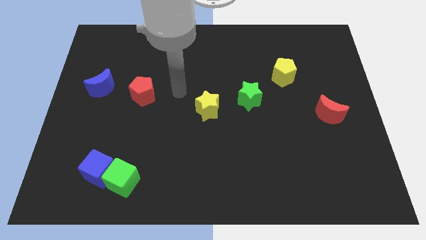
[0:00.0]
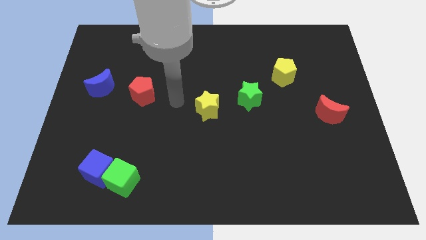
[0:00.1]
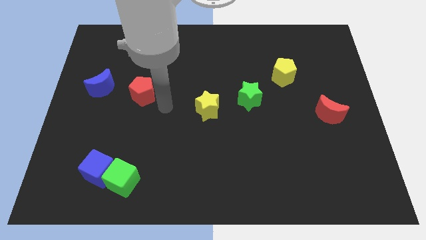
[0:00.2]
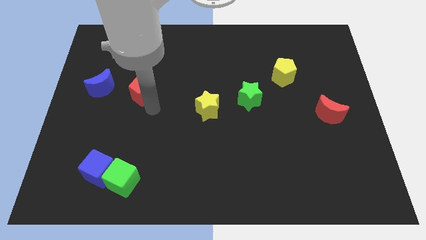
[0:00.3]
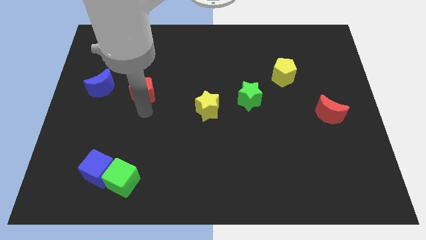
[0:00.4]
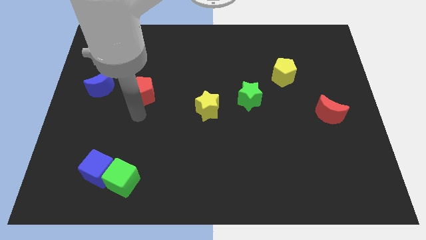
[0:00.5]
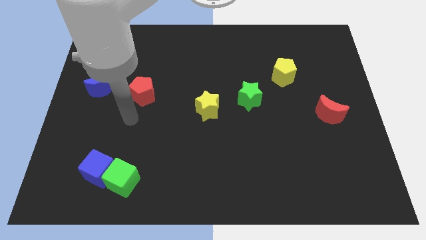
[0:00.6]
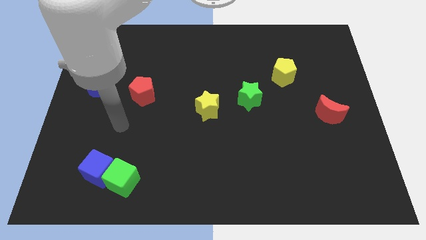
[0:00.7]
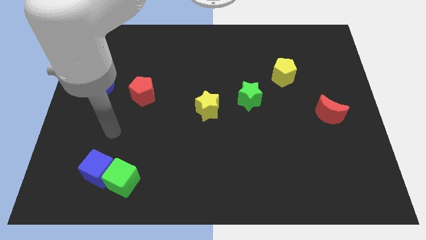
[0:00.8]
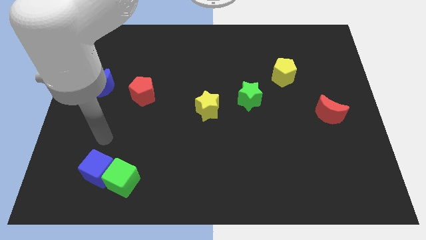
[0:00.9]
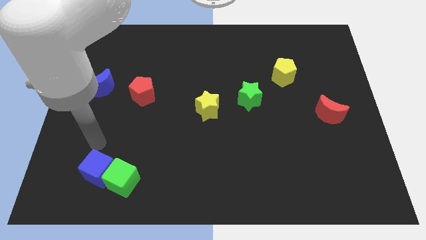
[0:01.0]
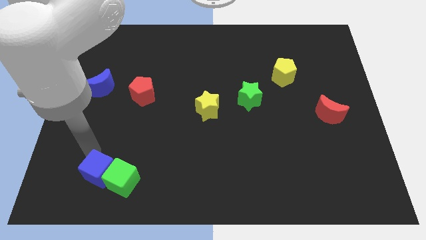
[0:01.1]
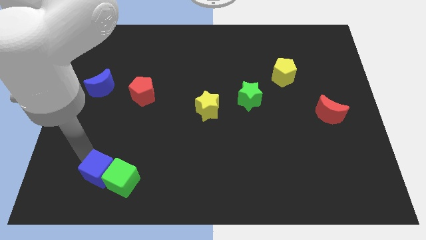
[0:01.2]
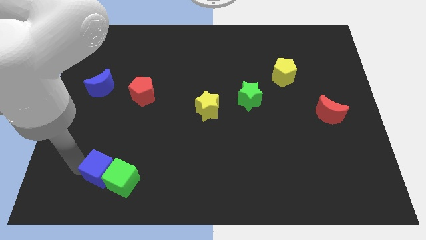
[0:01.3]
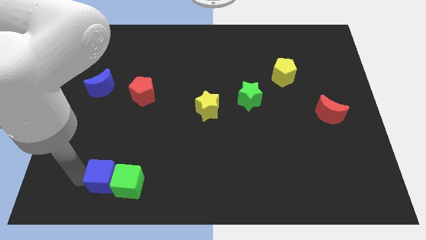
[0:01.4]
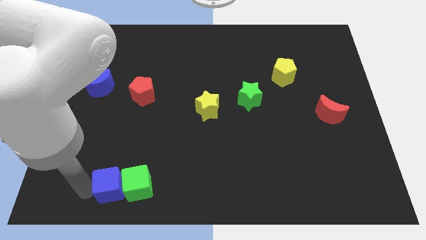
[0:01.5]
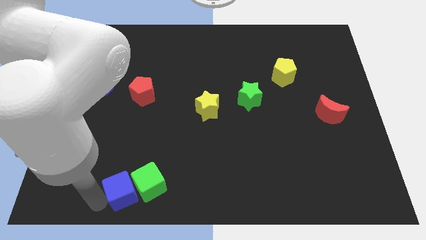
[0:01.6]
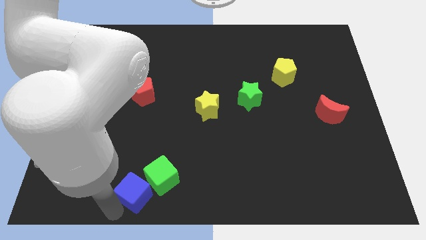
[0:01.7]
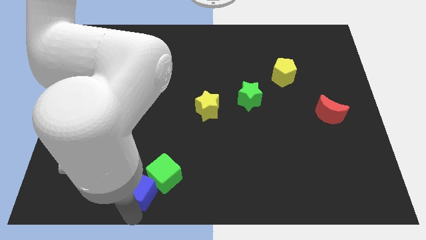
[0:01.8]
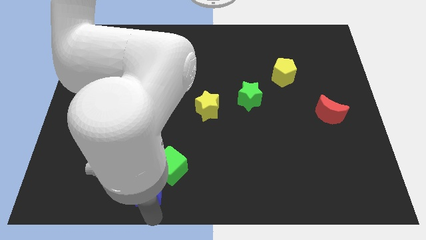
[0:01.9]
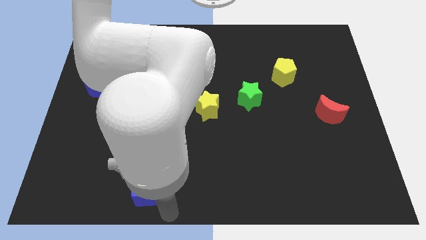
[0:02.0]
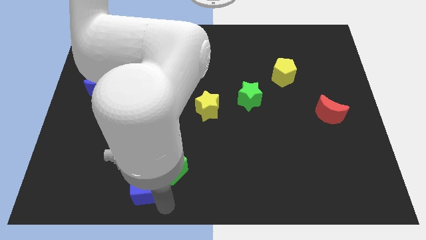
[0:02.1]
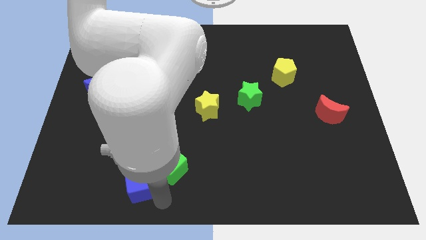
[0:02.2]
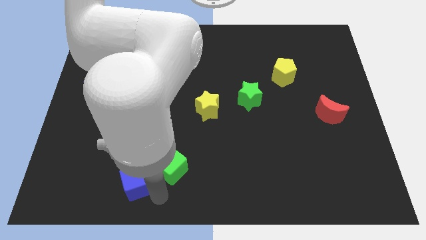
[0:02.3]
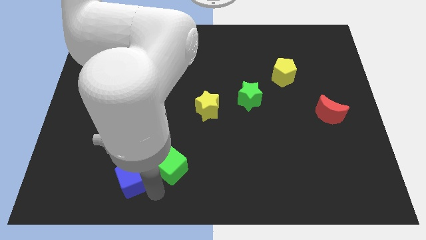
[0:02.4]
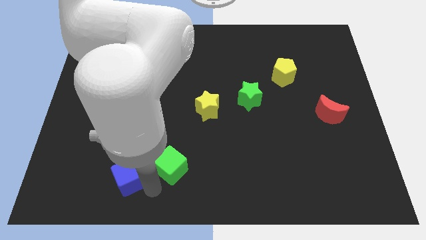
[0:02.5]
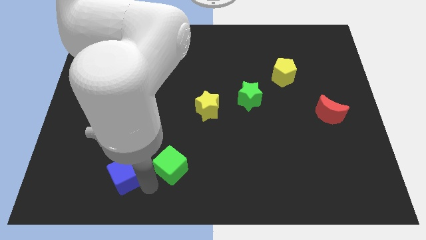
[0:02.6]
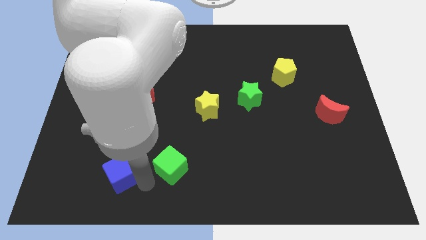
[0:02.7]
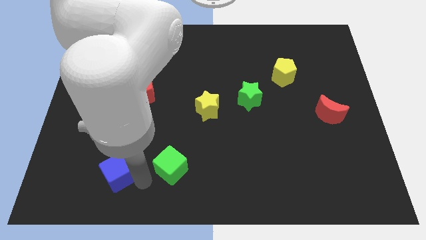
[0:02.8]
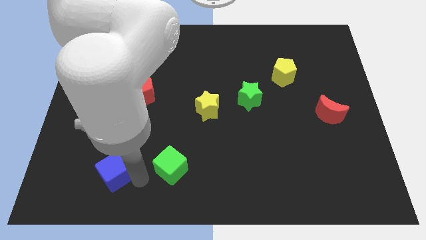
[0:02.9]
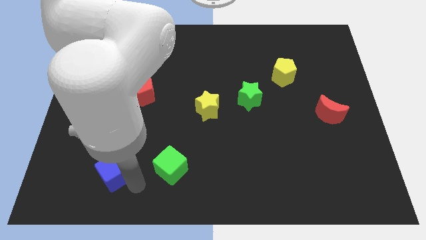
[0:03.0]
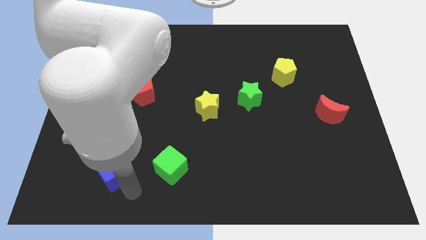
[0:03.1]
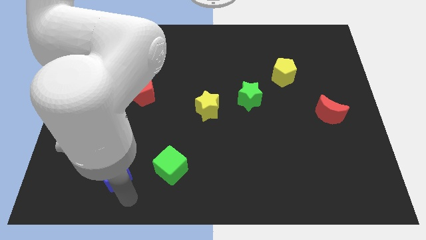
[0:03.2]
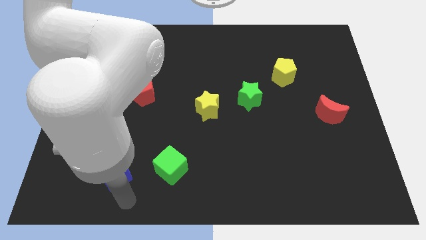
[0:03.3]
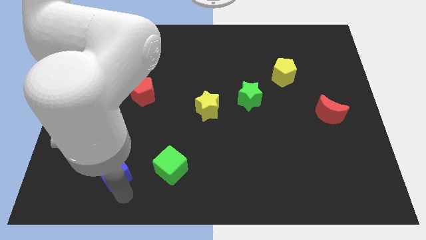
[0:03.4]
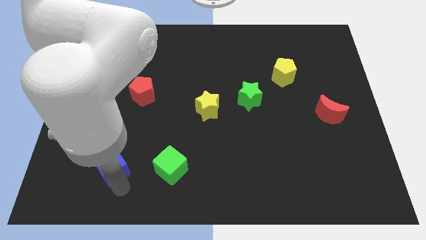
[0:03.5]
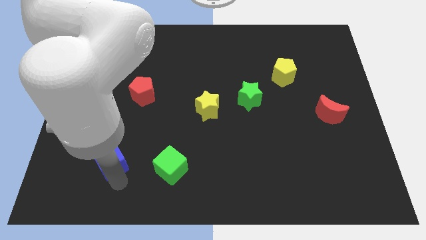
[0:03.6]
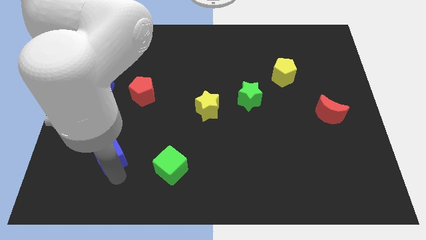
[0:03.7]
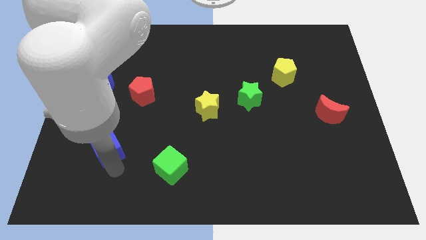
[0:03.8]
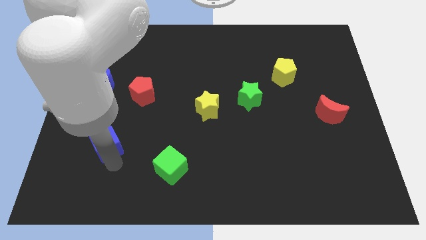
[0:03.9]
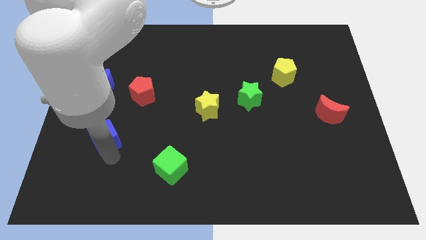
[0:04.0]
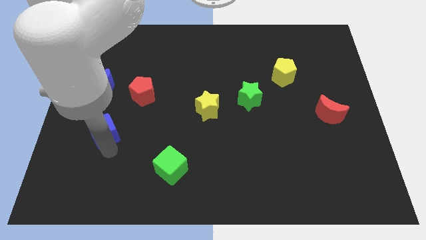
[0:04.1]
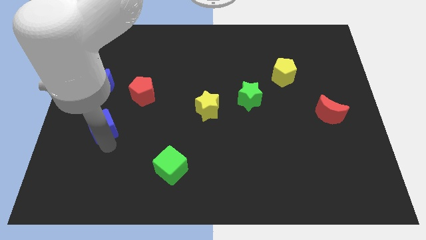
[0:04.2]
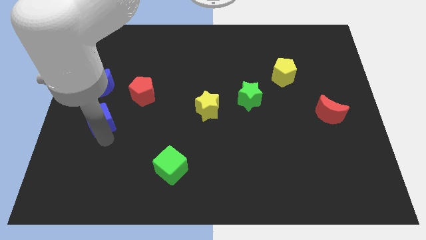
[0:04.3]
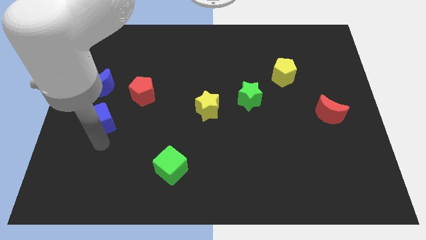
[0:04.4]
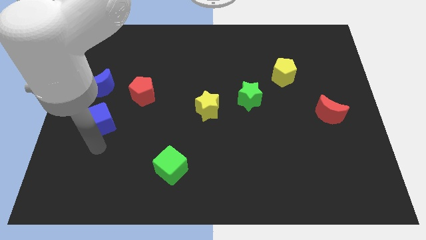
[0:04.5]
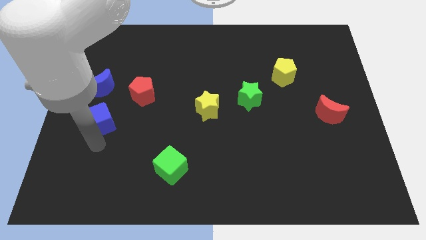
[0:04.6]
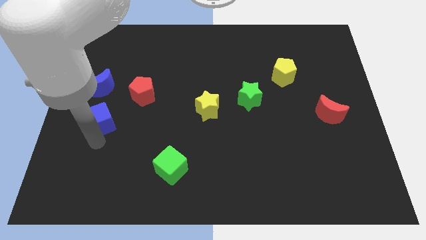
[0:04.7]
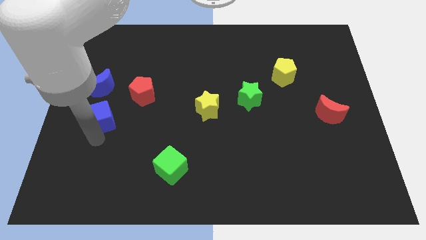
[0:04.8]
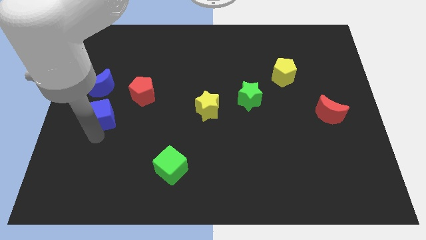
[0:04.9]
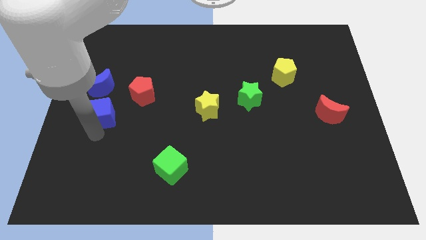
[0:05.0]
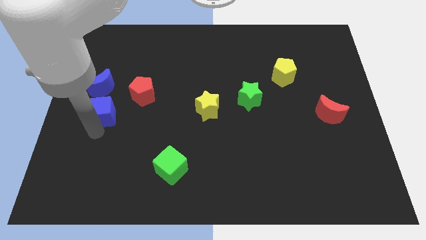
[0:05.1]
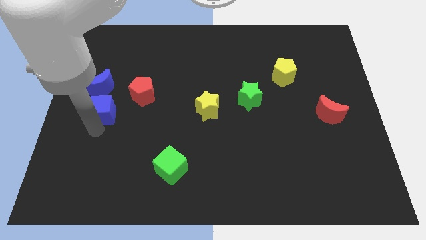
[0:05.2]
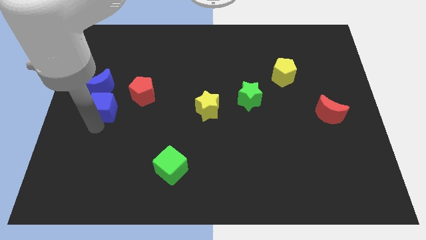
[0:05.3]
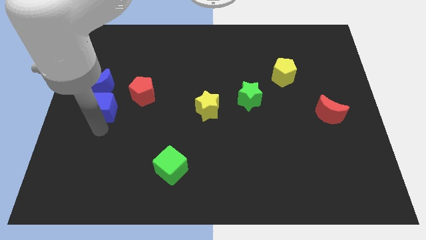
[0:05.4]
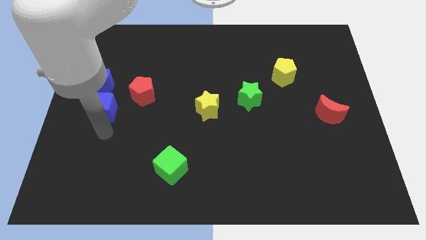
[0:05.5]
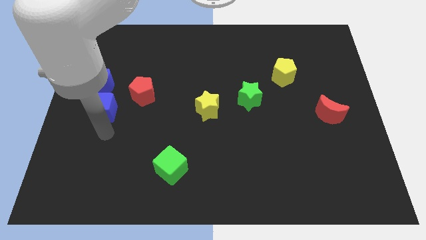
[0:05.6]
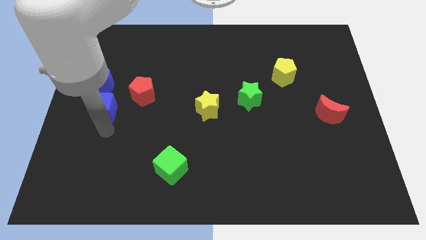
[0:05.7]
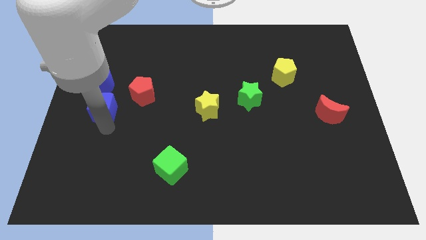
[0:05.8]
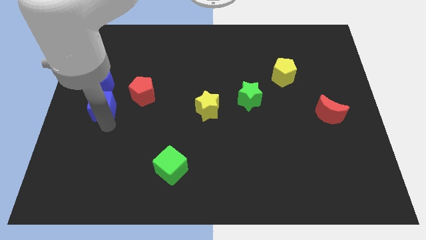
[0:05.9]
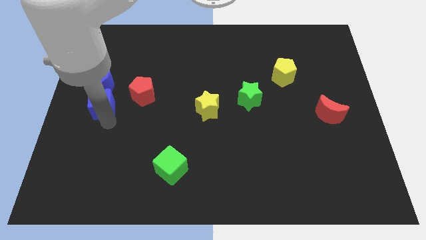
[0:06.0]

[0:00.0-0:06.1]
push the blue cube next to the blue moon
